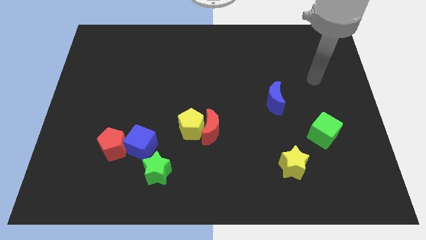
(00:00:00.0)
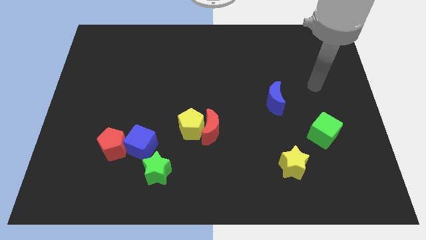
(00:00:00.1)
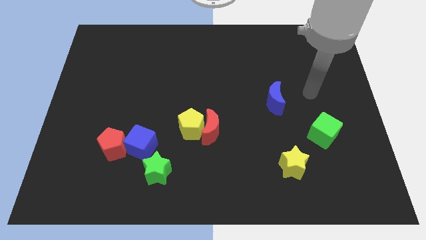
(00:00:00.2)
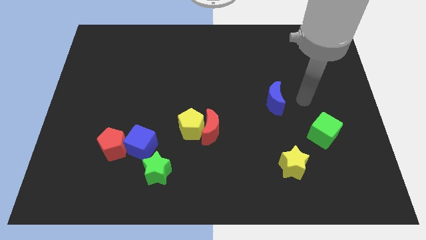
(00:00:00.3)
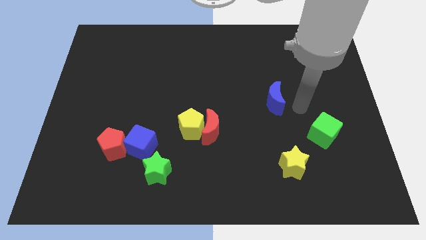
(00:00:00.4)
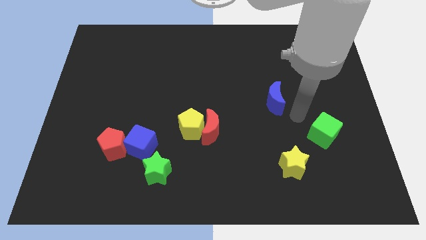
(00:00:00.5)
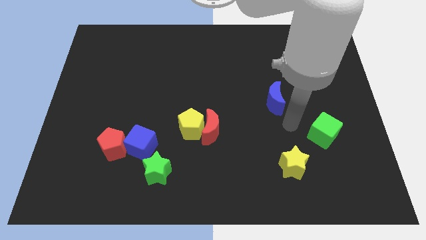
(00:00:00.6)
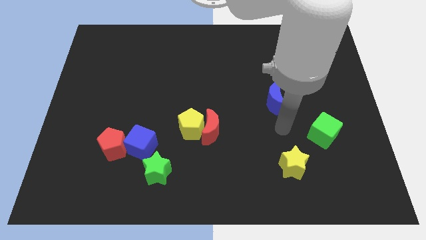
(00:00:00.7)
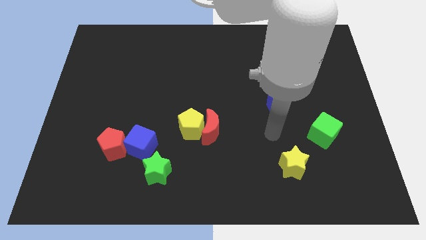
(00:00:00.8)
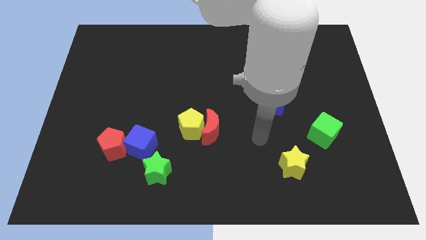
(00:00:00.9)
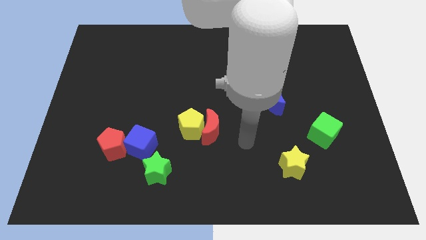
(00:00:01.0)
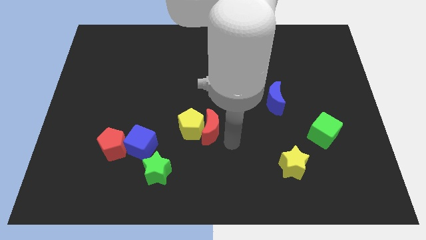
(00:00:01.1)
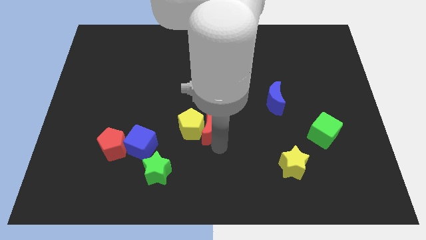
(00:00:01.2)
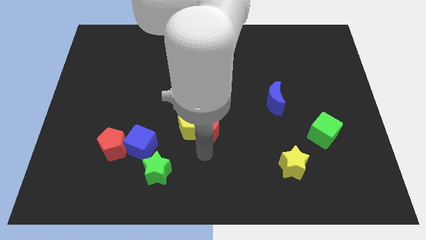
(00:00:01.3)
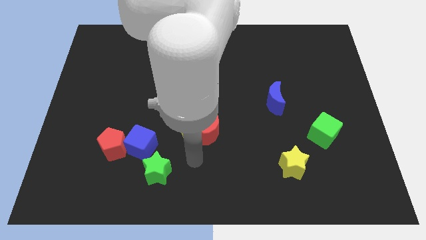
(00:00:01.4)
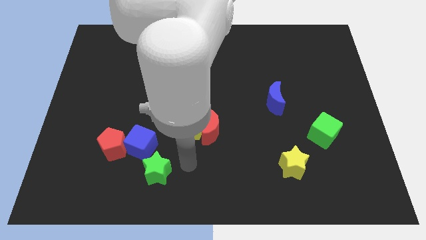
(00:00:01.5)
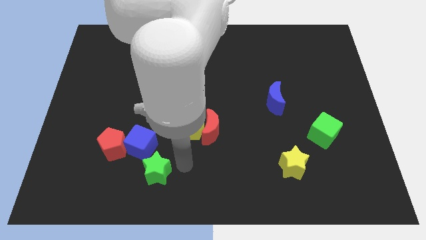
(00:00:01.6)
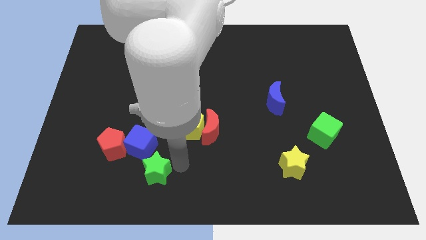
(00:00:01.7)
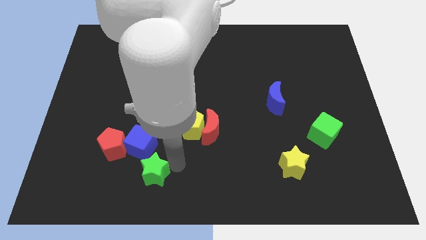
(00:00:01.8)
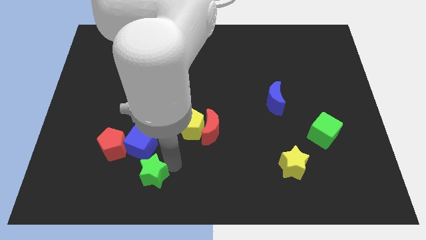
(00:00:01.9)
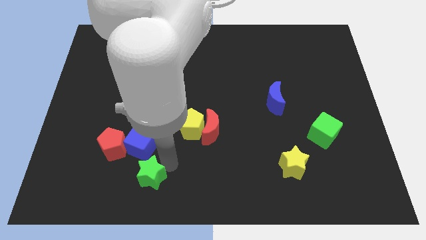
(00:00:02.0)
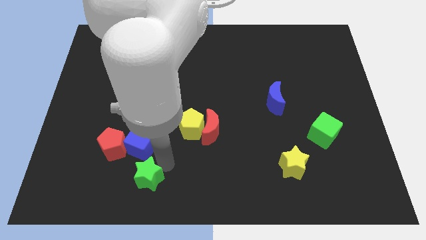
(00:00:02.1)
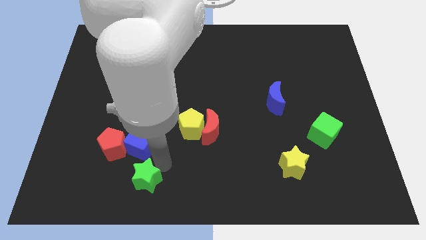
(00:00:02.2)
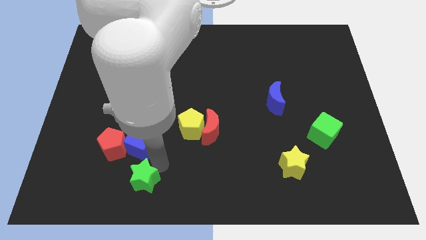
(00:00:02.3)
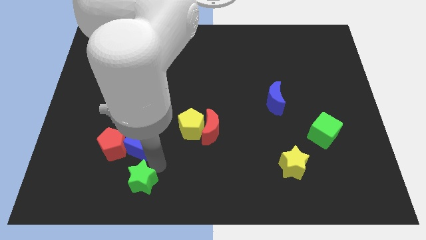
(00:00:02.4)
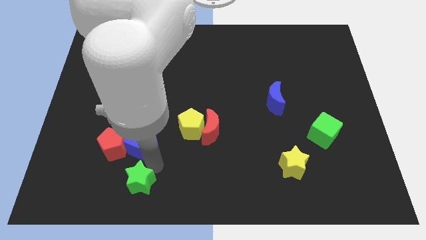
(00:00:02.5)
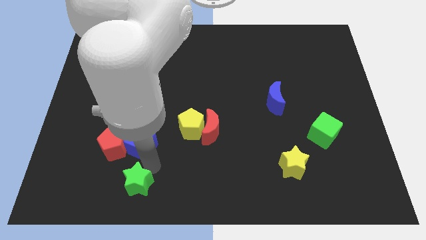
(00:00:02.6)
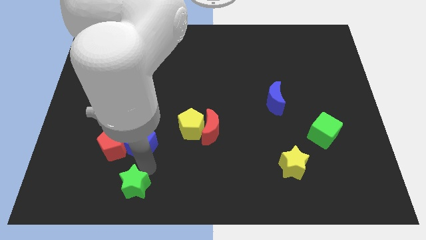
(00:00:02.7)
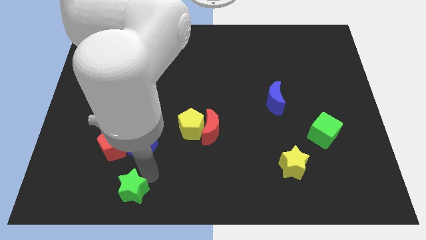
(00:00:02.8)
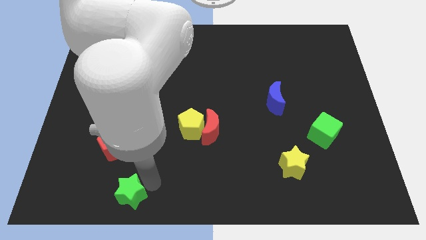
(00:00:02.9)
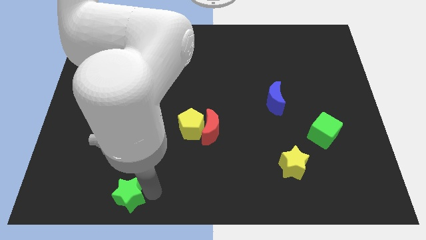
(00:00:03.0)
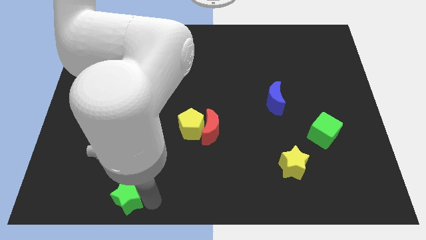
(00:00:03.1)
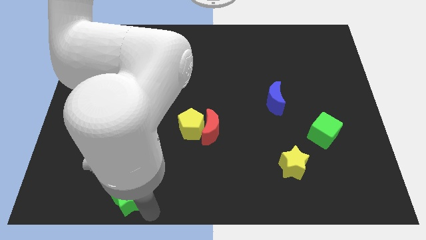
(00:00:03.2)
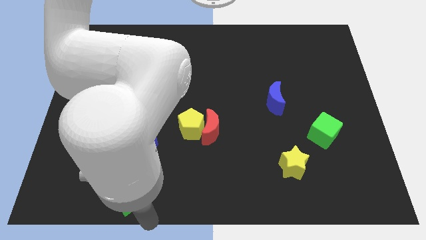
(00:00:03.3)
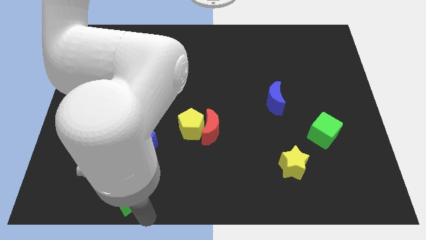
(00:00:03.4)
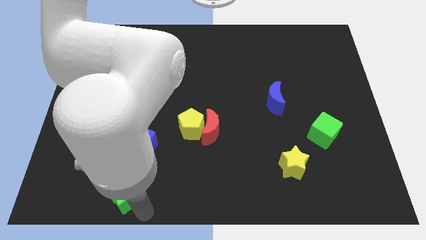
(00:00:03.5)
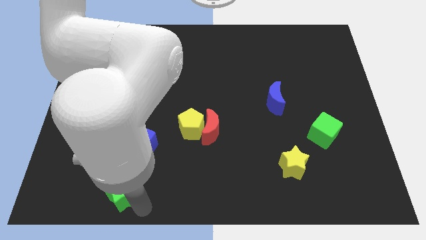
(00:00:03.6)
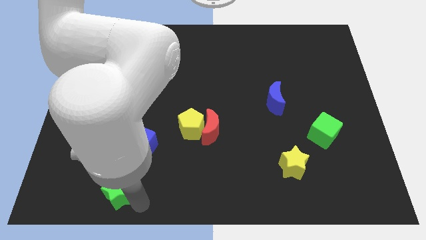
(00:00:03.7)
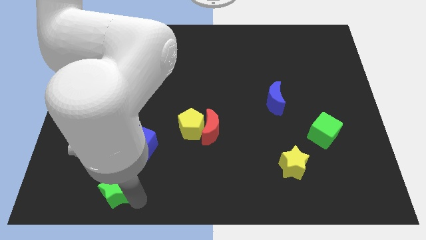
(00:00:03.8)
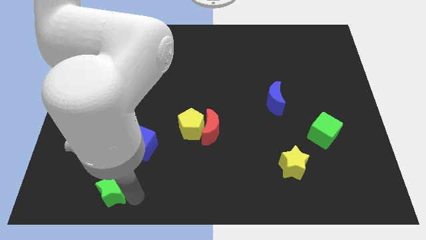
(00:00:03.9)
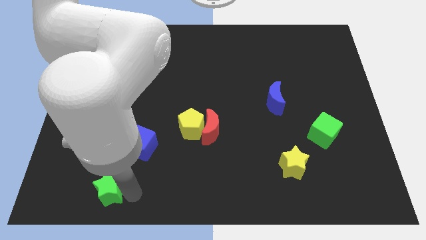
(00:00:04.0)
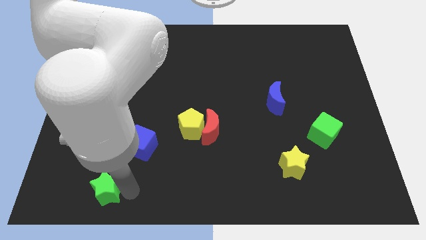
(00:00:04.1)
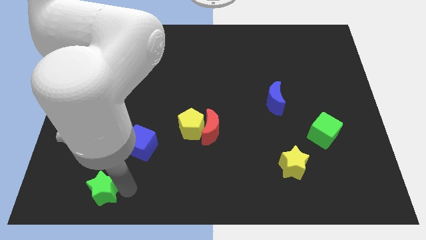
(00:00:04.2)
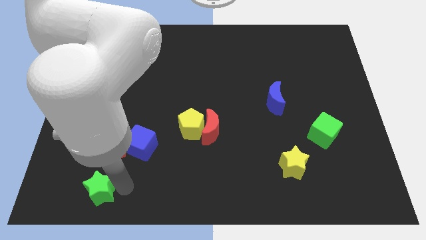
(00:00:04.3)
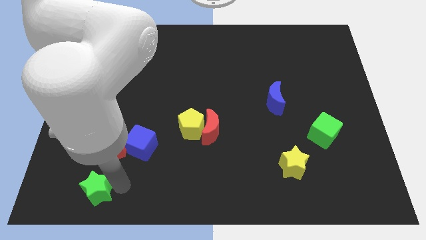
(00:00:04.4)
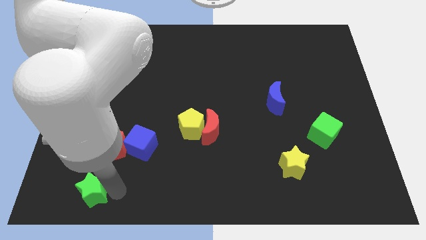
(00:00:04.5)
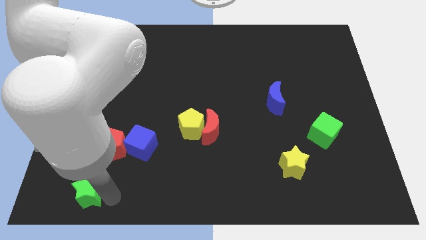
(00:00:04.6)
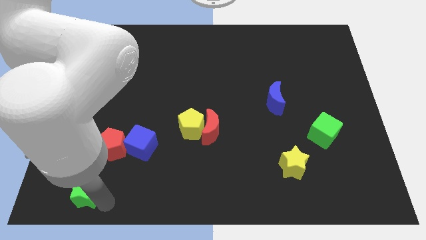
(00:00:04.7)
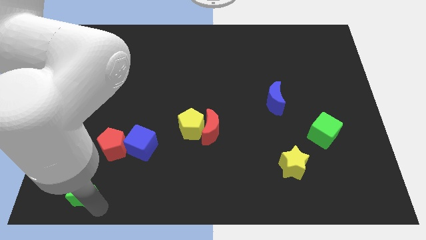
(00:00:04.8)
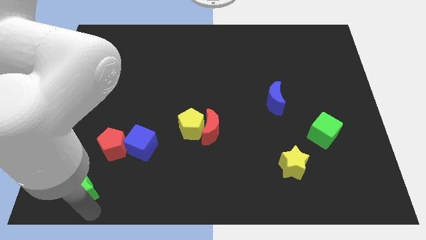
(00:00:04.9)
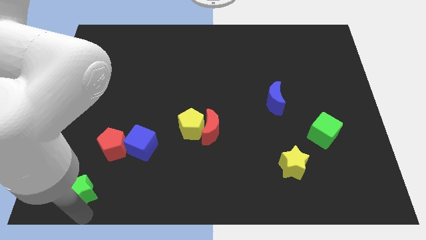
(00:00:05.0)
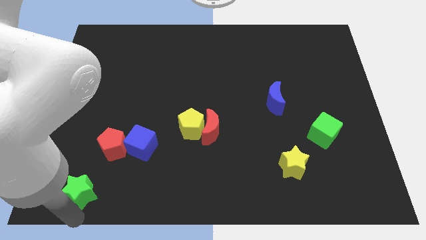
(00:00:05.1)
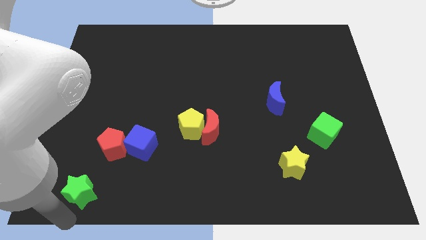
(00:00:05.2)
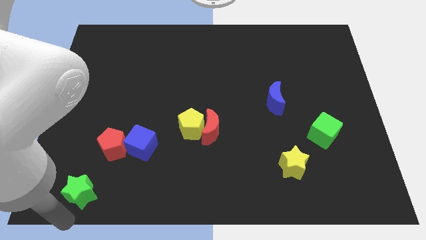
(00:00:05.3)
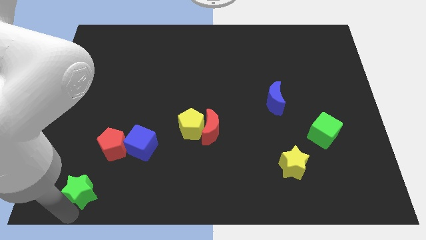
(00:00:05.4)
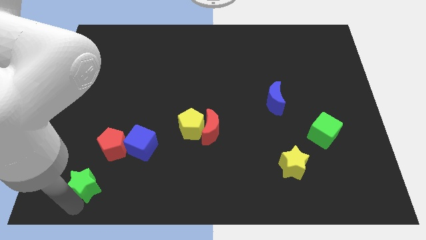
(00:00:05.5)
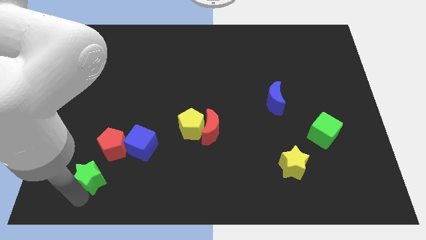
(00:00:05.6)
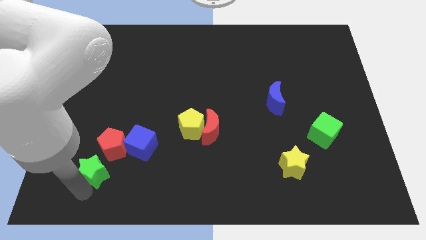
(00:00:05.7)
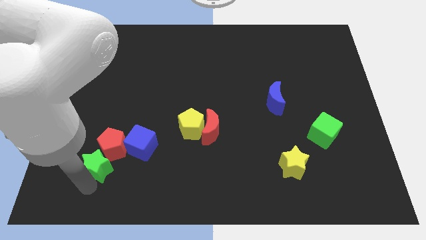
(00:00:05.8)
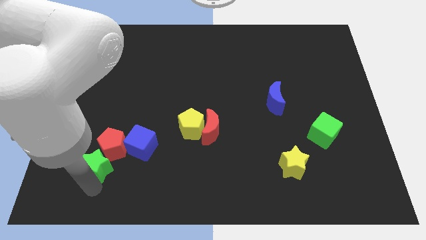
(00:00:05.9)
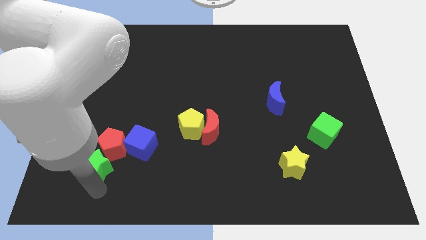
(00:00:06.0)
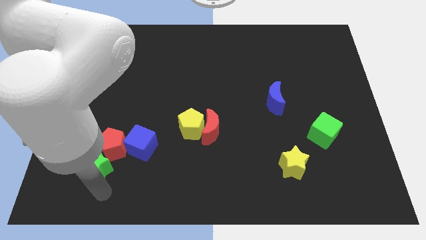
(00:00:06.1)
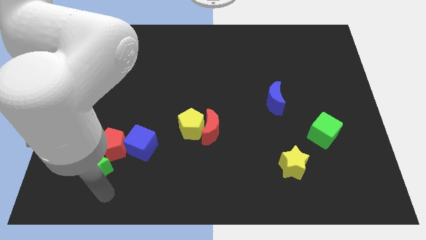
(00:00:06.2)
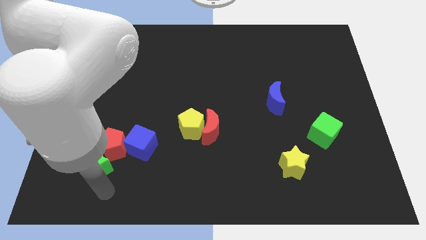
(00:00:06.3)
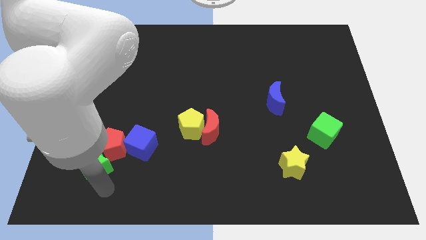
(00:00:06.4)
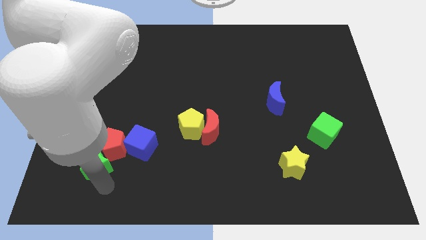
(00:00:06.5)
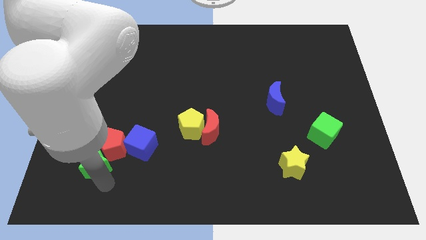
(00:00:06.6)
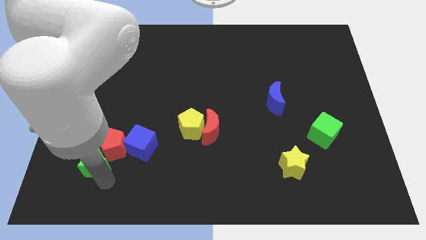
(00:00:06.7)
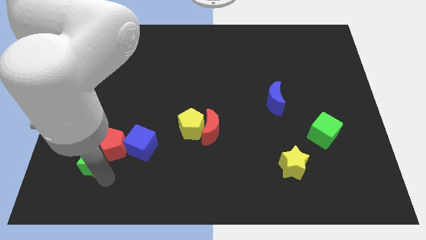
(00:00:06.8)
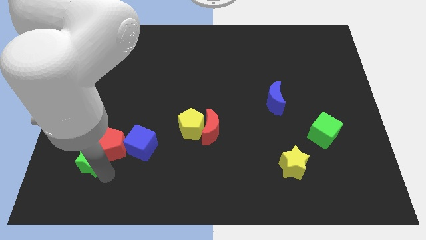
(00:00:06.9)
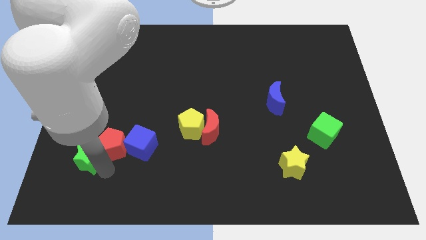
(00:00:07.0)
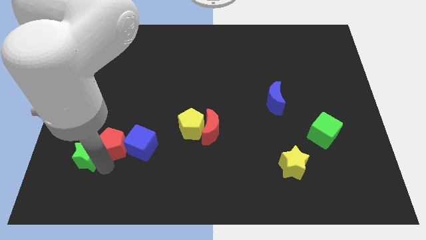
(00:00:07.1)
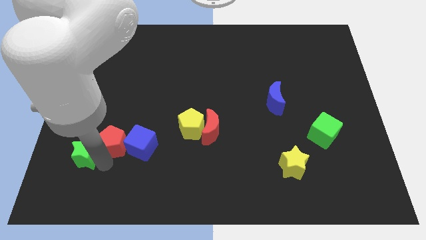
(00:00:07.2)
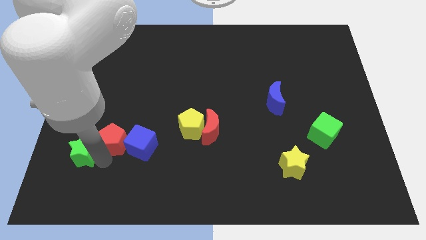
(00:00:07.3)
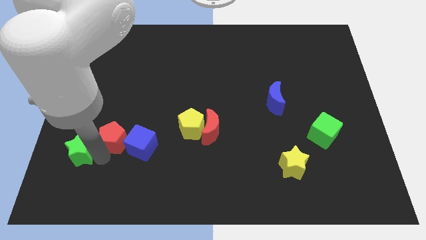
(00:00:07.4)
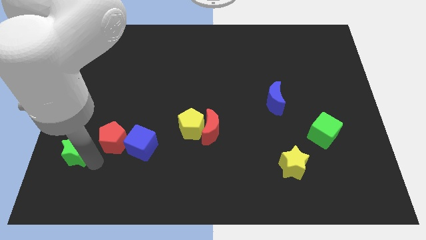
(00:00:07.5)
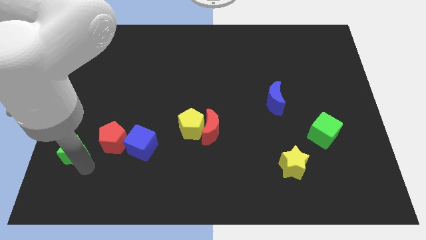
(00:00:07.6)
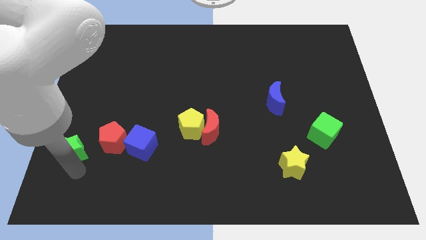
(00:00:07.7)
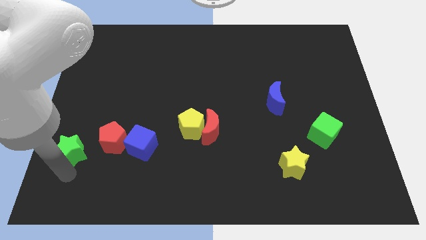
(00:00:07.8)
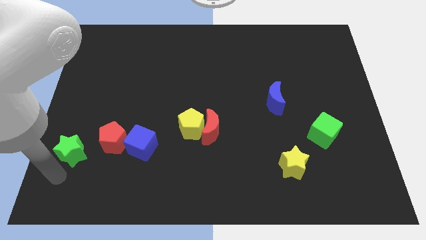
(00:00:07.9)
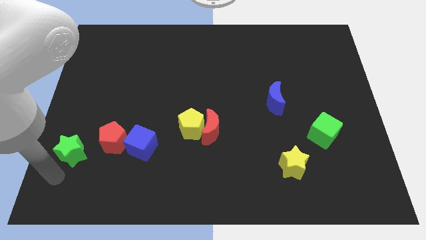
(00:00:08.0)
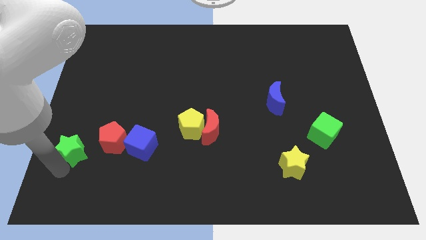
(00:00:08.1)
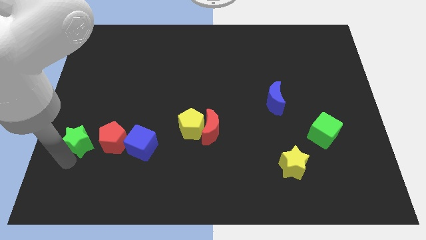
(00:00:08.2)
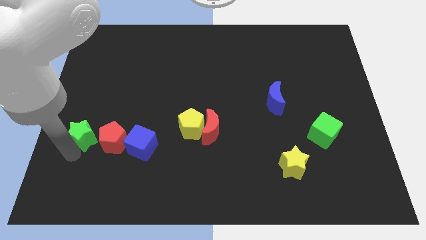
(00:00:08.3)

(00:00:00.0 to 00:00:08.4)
put the green star to the top left side of the red pentagon
